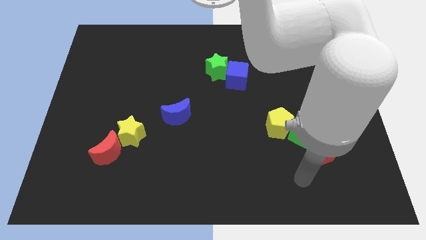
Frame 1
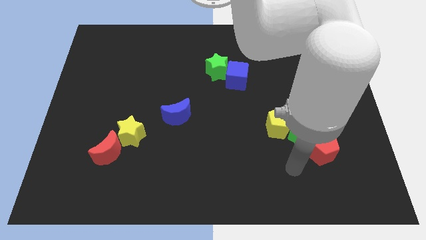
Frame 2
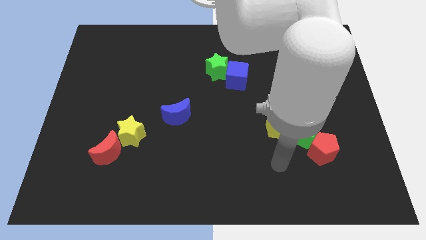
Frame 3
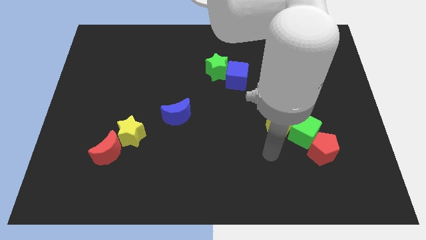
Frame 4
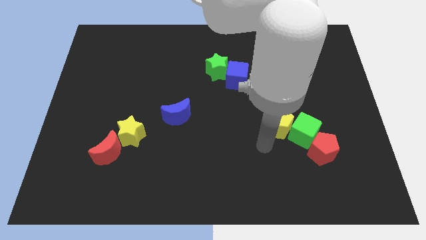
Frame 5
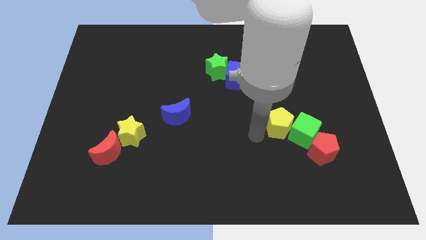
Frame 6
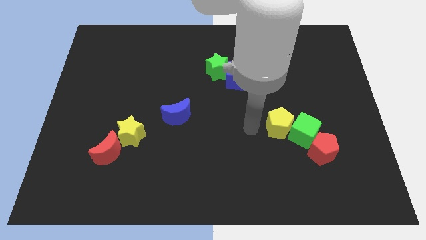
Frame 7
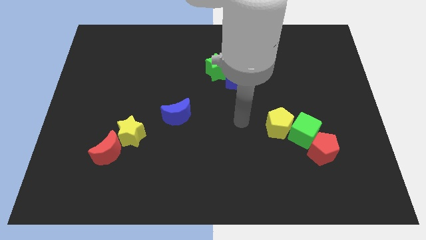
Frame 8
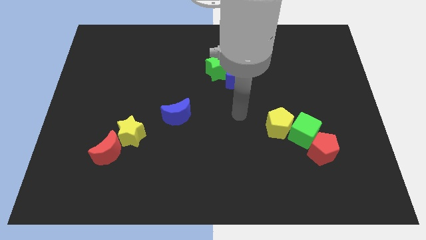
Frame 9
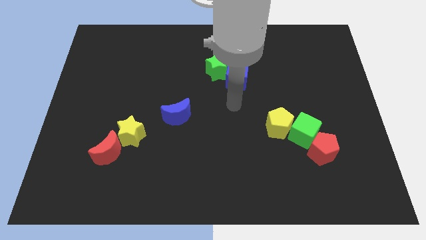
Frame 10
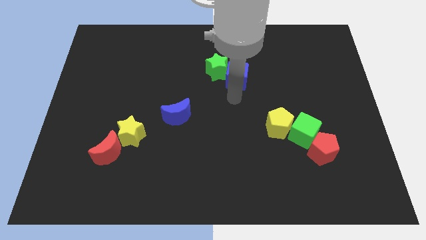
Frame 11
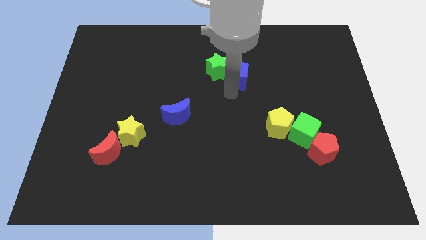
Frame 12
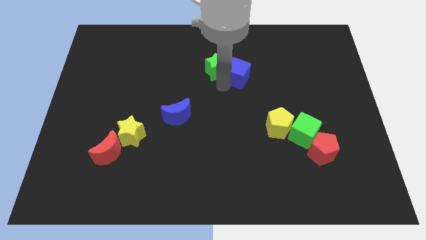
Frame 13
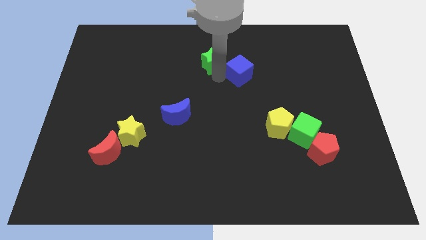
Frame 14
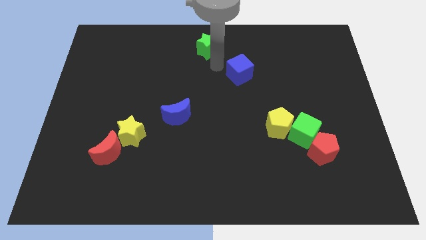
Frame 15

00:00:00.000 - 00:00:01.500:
pull the blue cube apart from the green star

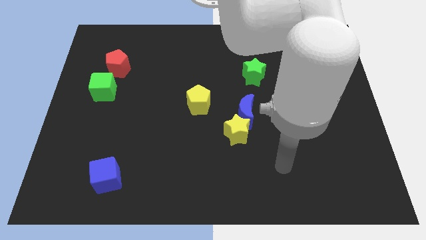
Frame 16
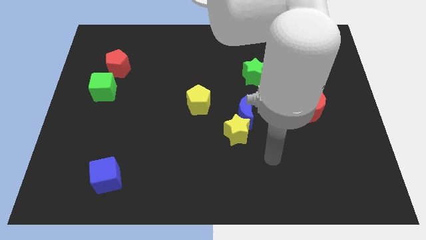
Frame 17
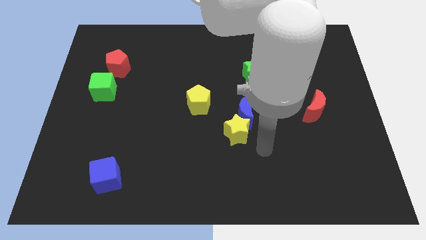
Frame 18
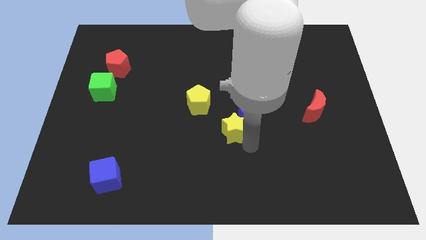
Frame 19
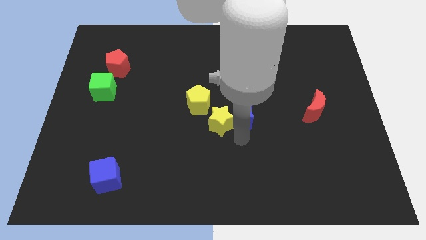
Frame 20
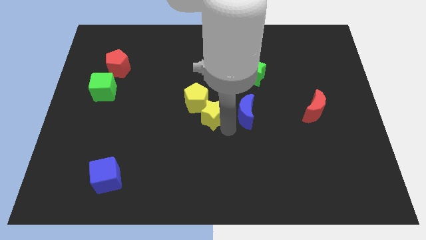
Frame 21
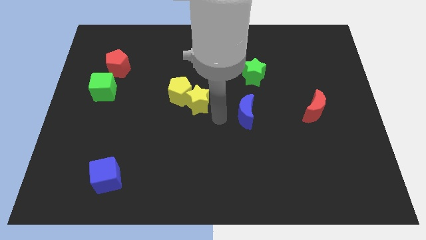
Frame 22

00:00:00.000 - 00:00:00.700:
move the blue moon away from the yellow star

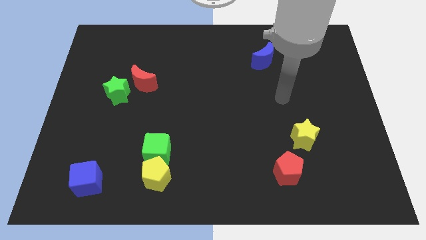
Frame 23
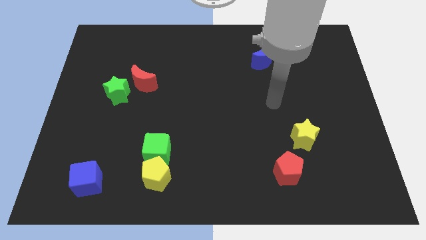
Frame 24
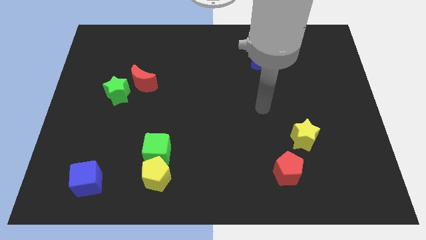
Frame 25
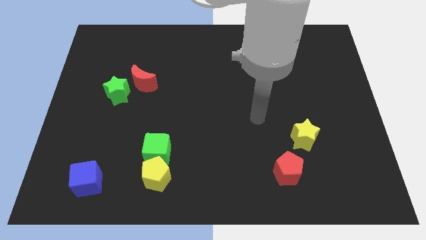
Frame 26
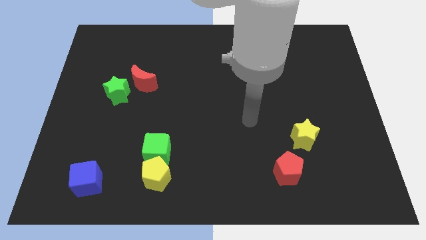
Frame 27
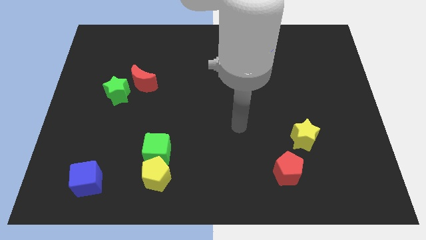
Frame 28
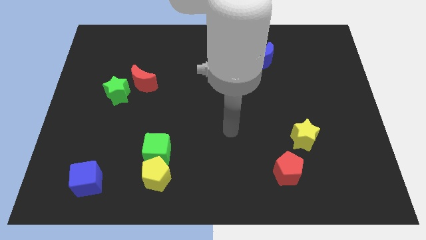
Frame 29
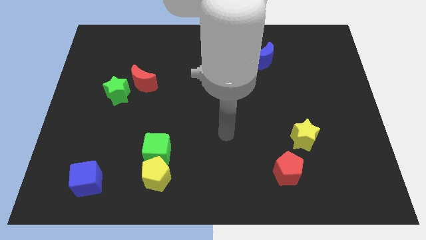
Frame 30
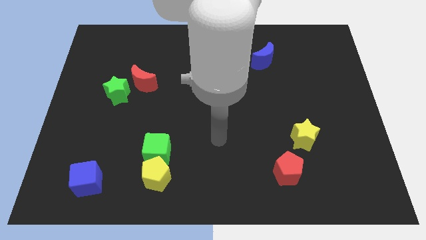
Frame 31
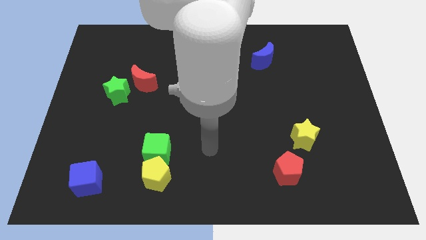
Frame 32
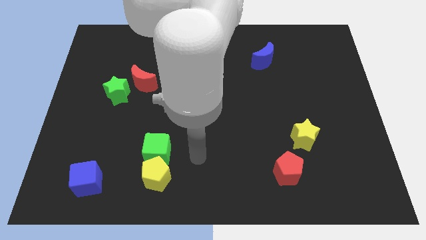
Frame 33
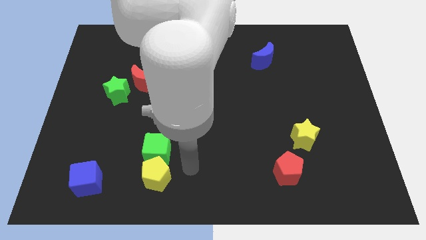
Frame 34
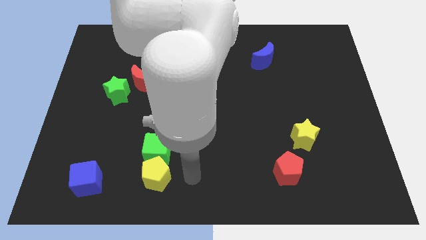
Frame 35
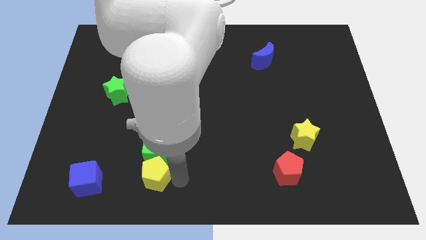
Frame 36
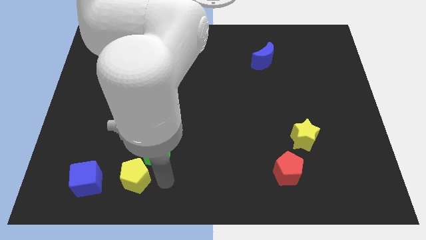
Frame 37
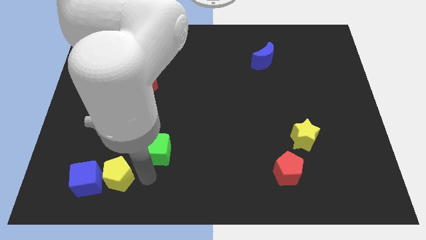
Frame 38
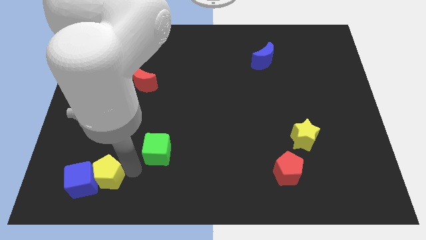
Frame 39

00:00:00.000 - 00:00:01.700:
pull the green cube apart from the yellow pentagon

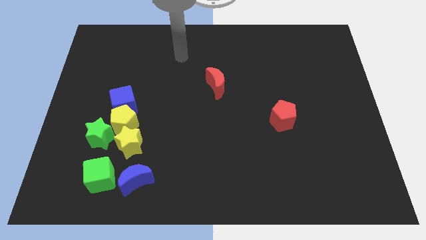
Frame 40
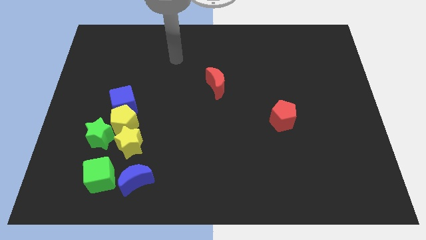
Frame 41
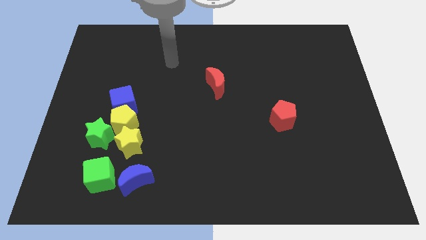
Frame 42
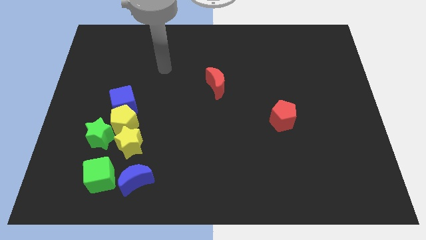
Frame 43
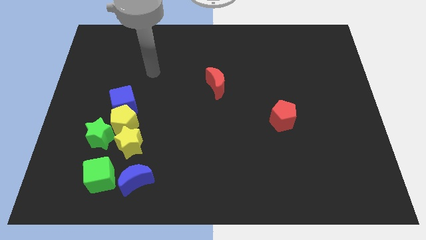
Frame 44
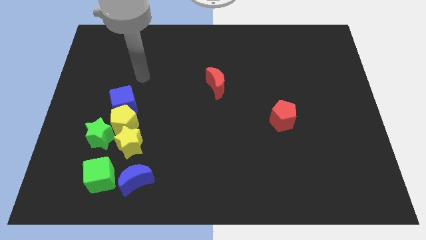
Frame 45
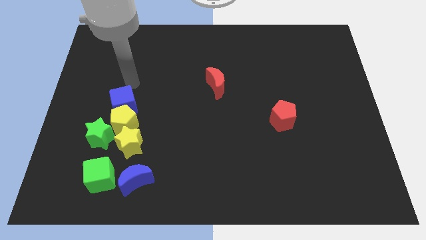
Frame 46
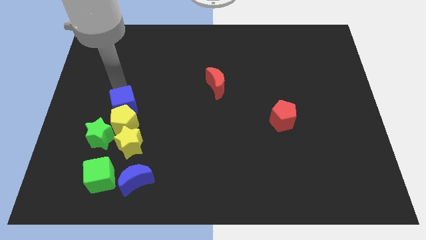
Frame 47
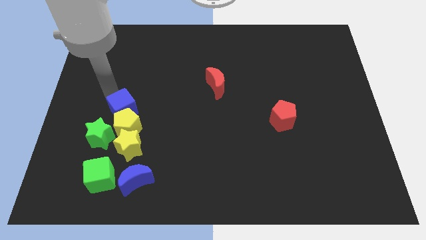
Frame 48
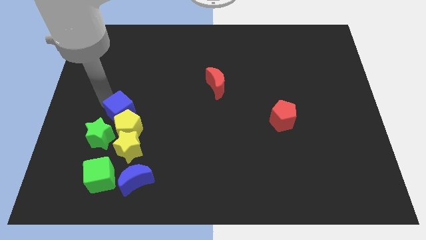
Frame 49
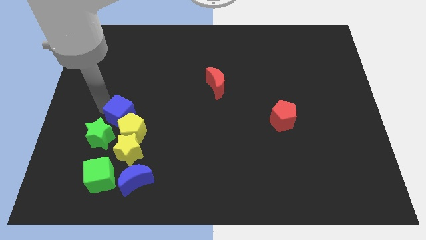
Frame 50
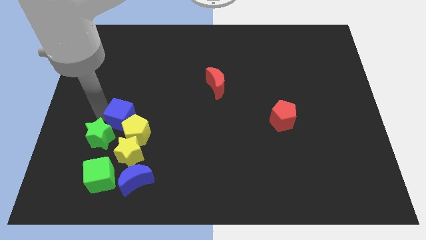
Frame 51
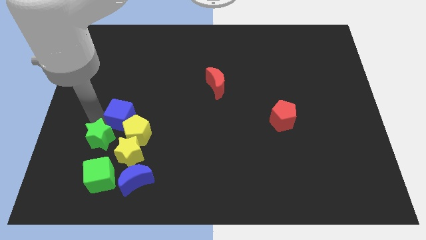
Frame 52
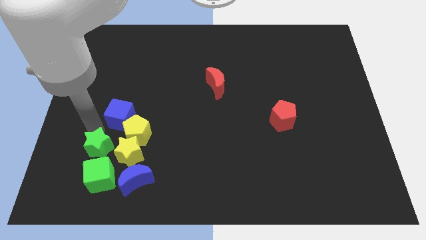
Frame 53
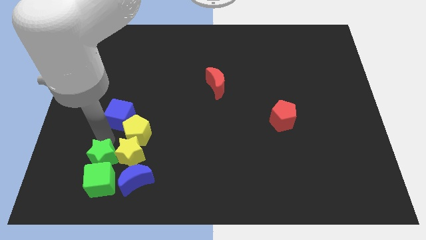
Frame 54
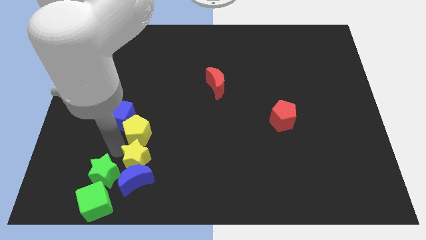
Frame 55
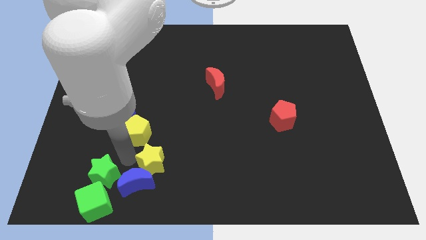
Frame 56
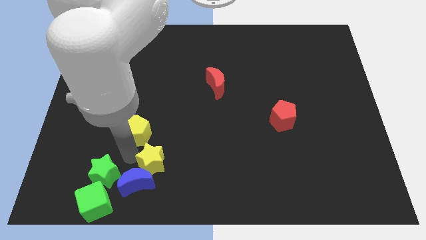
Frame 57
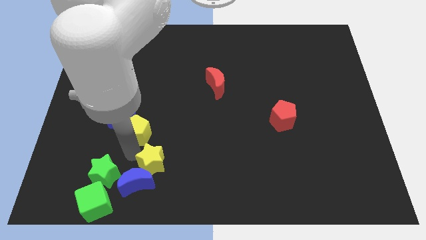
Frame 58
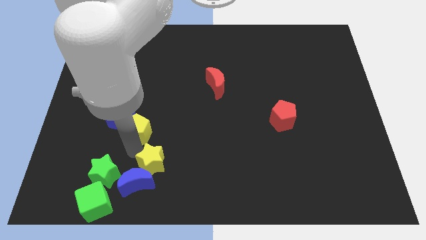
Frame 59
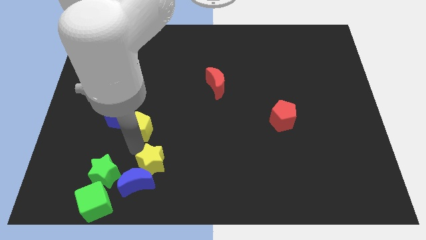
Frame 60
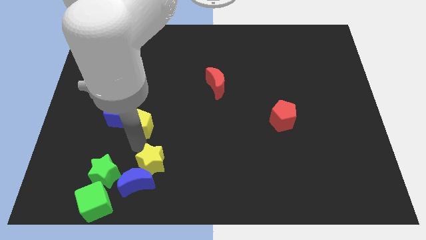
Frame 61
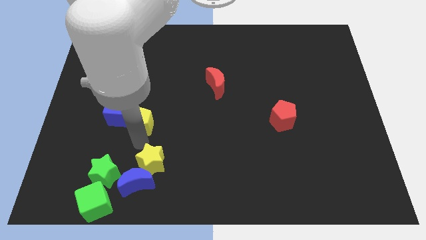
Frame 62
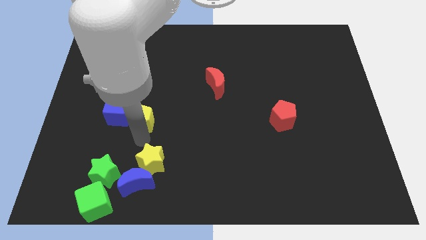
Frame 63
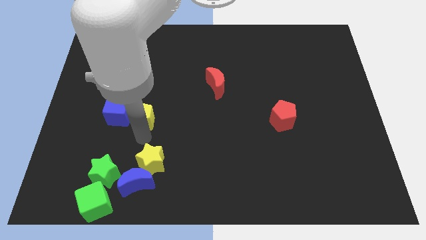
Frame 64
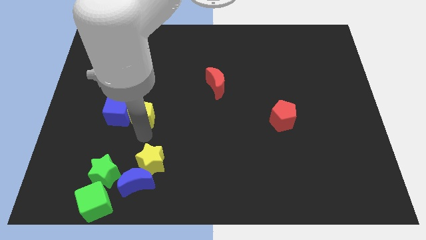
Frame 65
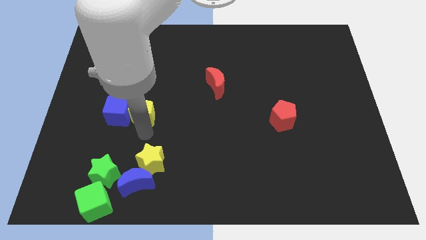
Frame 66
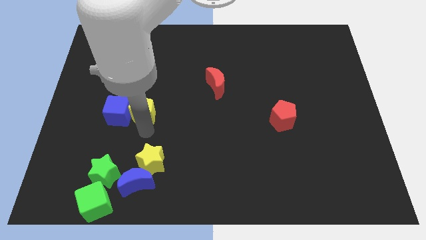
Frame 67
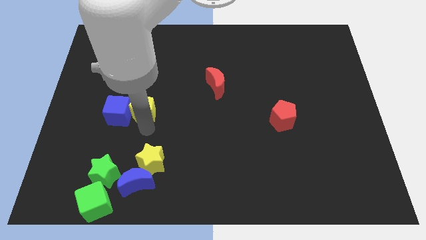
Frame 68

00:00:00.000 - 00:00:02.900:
separate the yellow pentagon from the group

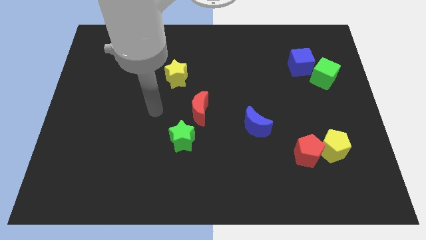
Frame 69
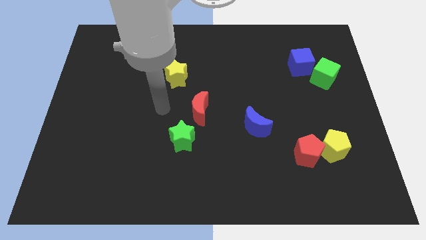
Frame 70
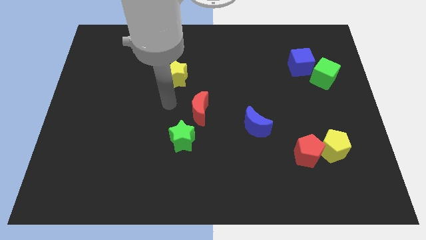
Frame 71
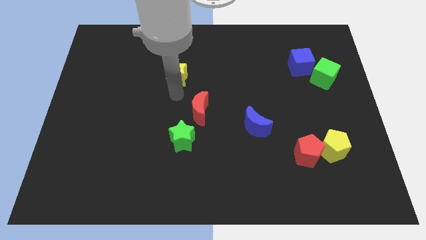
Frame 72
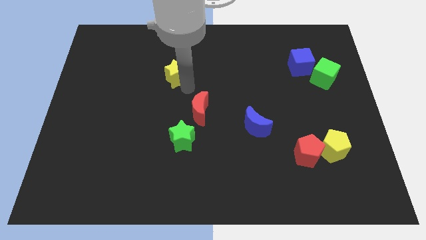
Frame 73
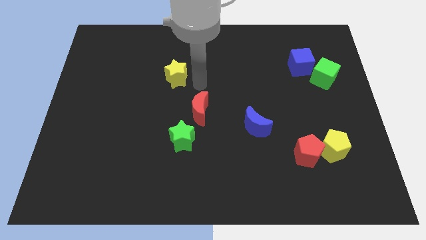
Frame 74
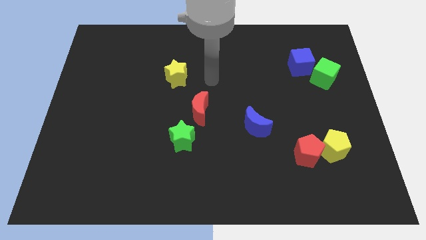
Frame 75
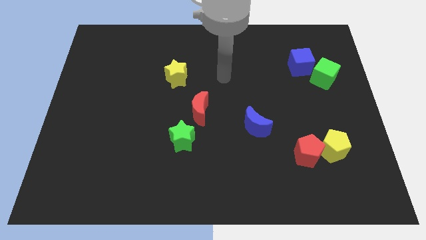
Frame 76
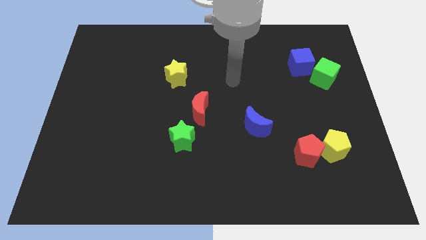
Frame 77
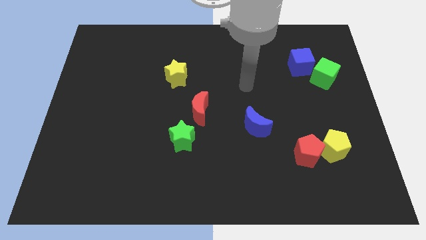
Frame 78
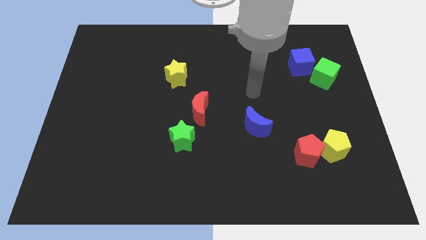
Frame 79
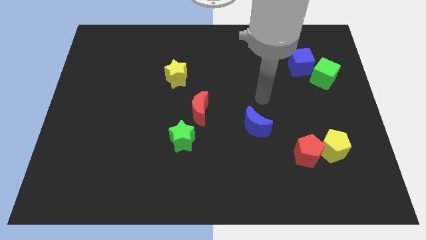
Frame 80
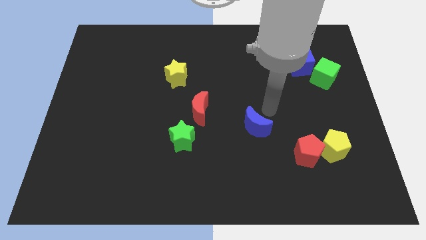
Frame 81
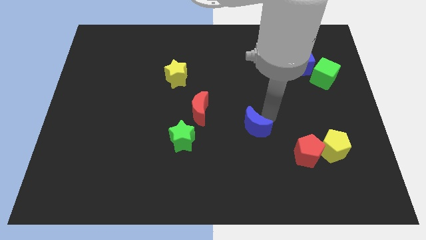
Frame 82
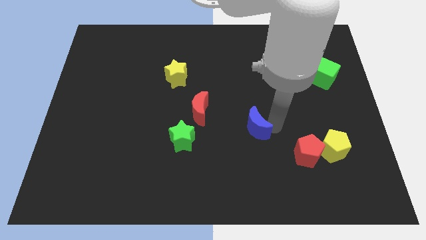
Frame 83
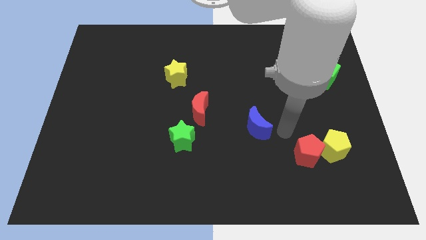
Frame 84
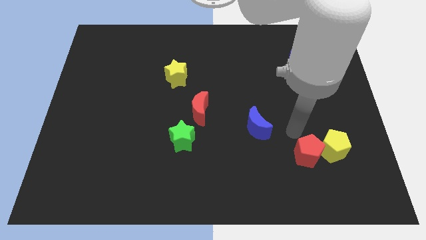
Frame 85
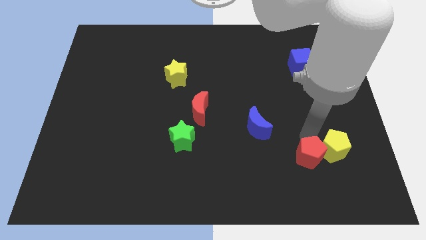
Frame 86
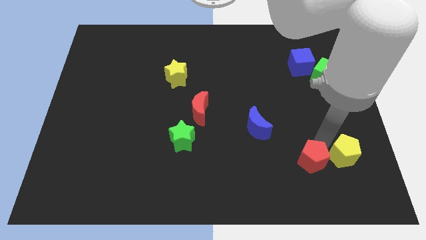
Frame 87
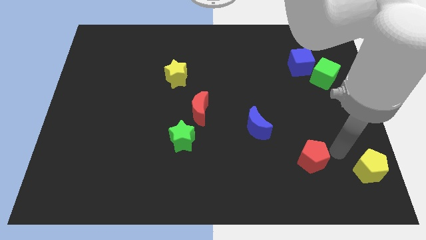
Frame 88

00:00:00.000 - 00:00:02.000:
move the red pentagon away from the yellow pentagon

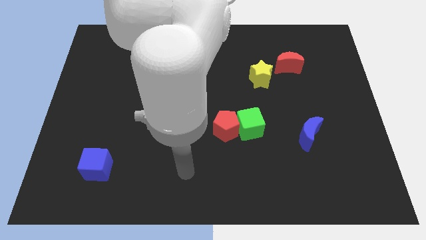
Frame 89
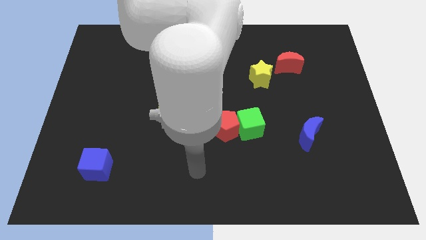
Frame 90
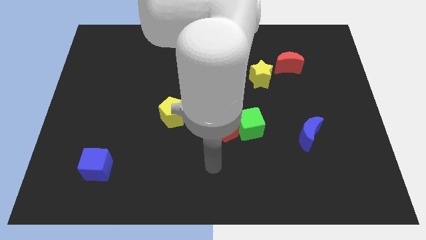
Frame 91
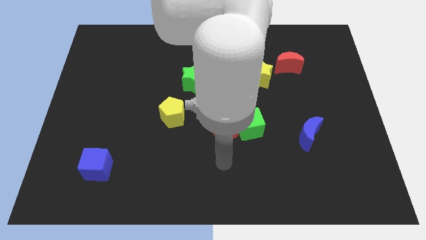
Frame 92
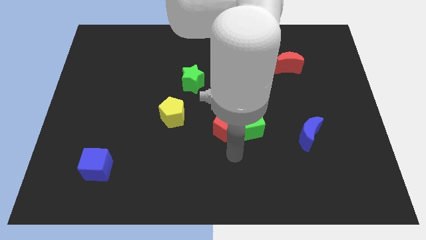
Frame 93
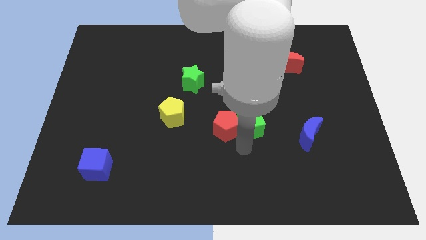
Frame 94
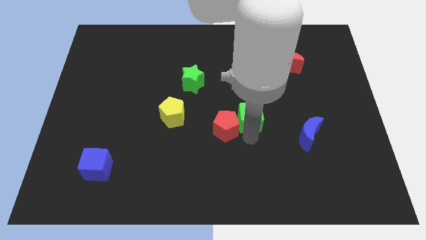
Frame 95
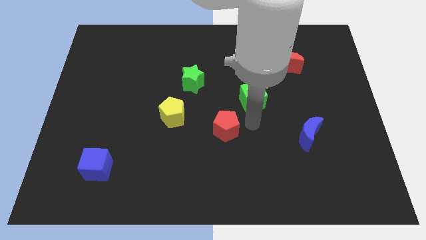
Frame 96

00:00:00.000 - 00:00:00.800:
move the red pentagon away from the green cube
